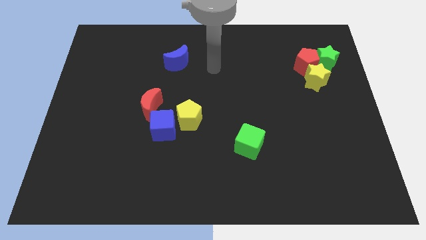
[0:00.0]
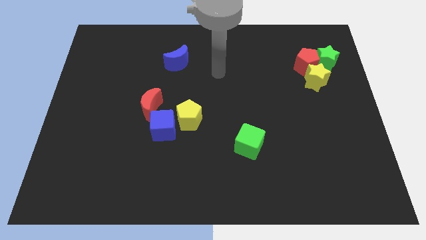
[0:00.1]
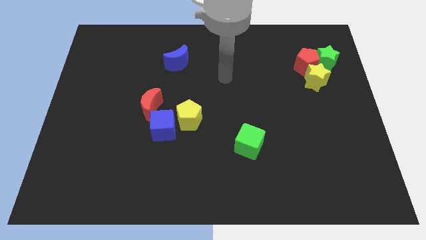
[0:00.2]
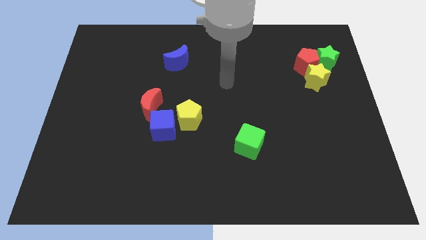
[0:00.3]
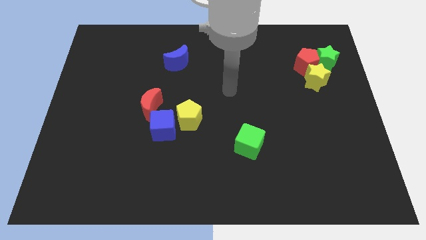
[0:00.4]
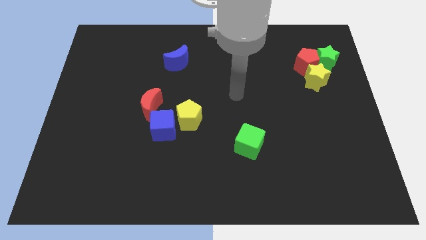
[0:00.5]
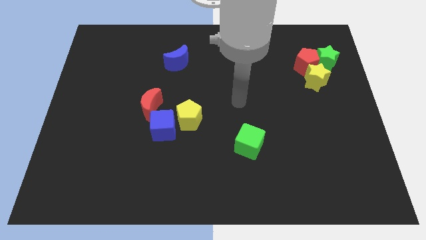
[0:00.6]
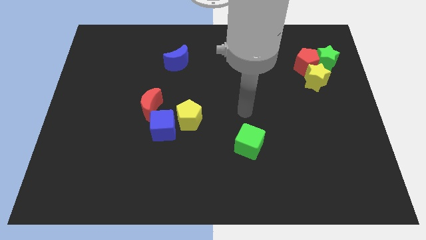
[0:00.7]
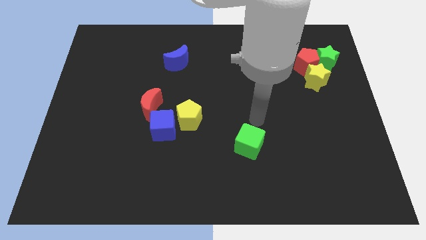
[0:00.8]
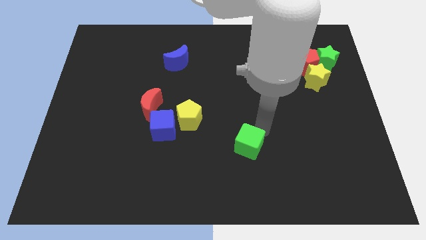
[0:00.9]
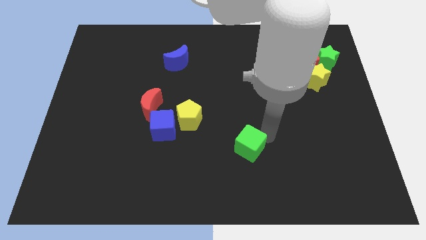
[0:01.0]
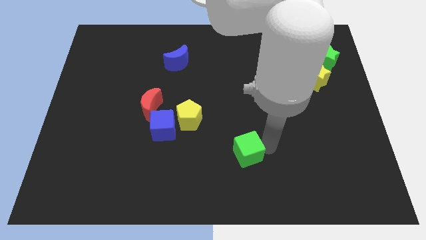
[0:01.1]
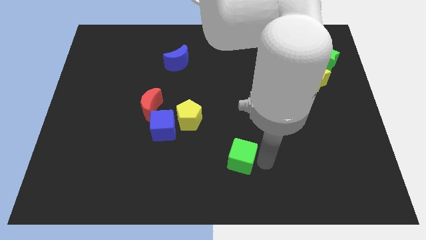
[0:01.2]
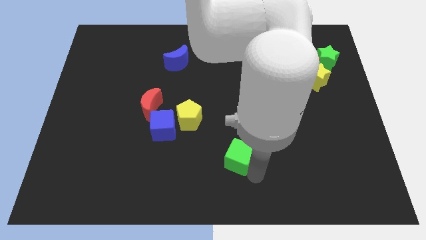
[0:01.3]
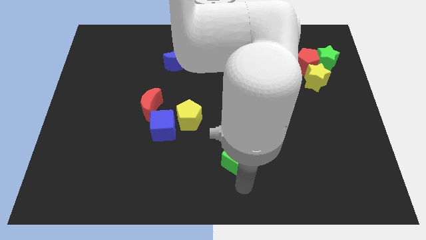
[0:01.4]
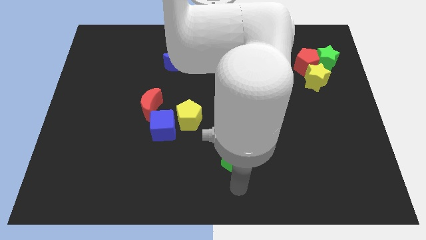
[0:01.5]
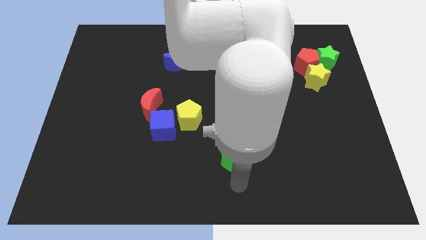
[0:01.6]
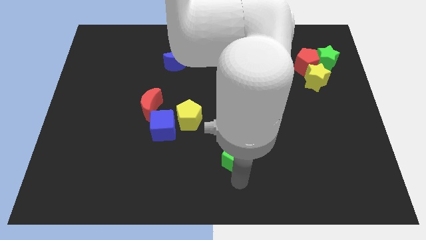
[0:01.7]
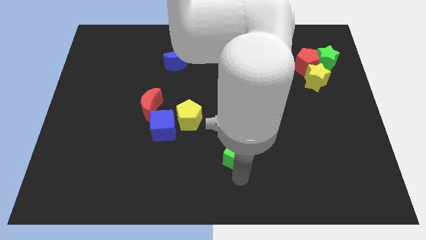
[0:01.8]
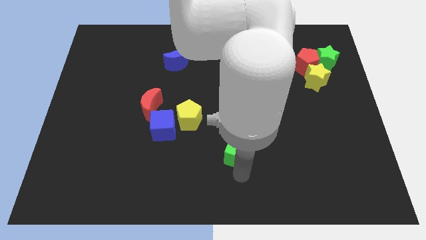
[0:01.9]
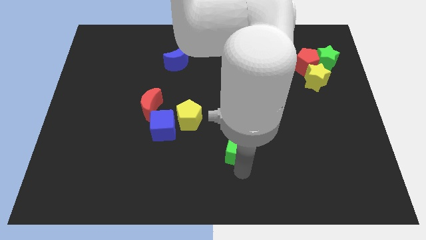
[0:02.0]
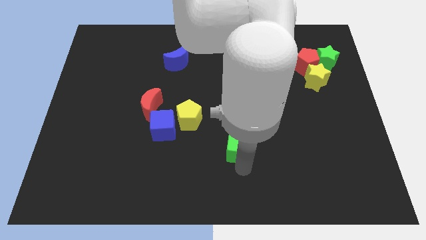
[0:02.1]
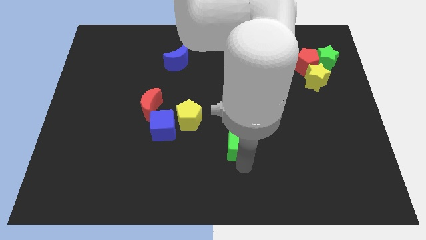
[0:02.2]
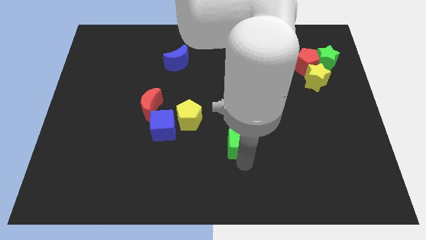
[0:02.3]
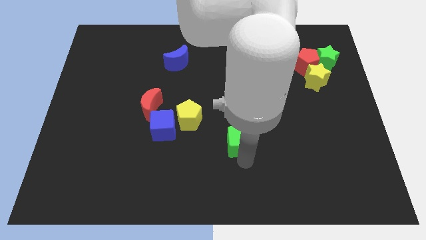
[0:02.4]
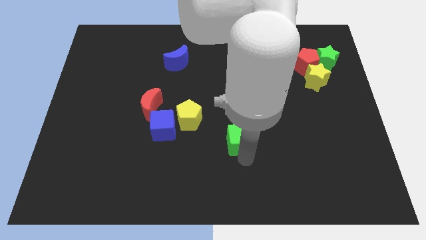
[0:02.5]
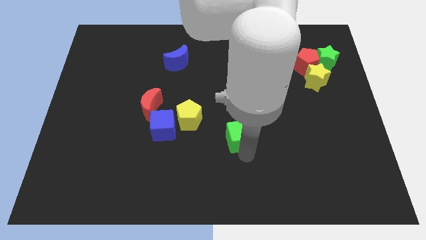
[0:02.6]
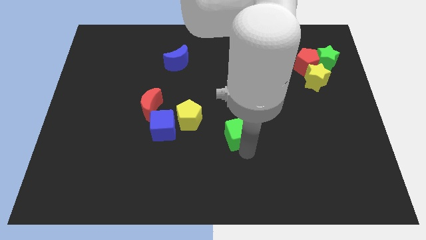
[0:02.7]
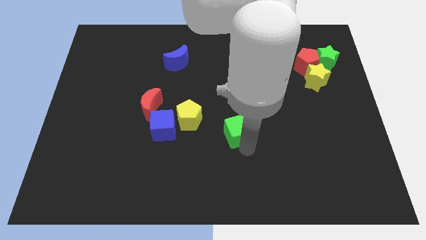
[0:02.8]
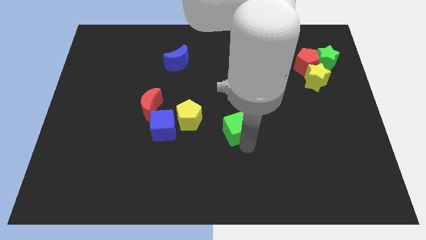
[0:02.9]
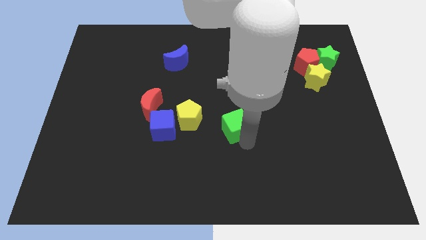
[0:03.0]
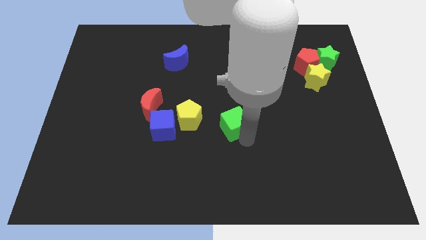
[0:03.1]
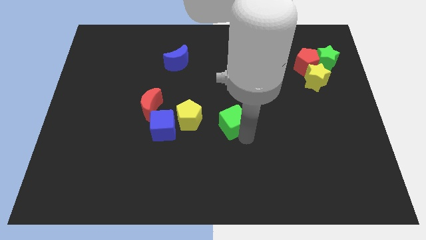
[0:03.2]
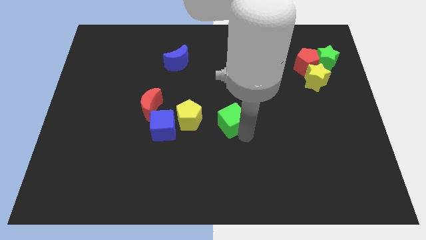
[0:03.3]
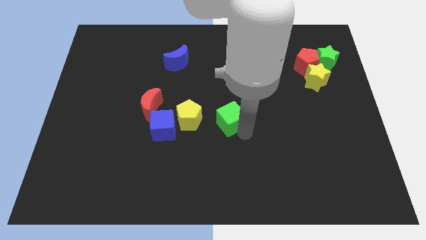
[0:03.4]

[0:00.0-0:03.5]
push the green cube diagonally upwards and to the left a bit

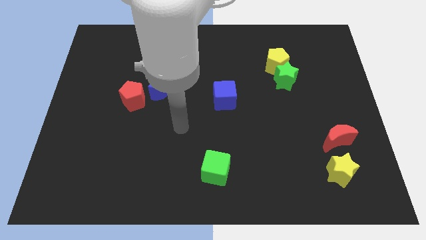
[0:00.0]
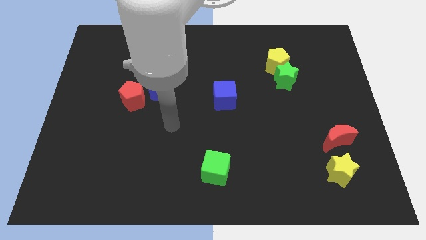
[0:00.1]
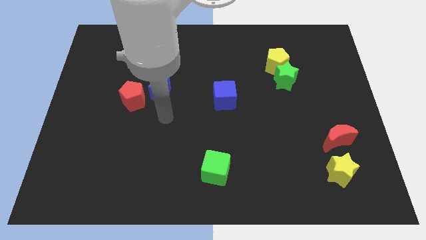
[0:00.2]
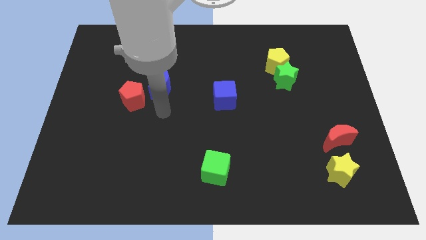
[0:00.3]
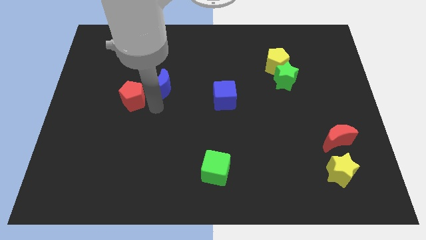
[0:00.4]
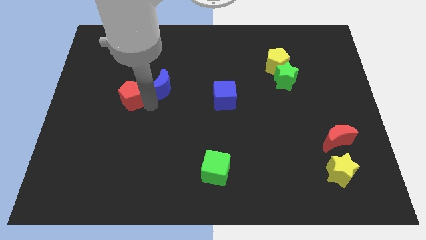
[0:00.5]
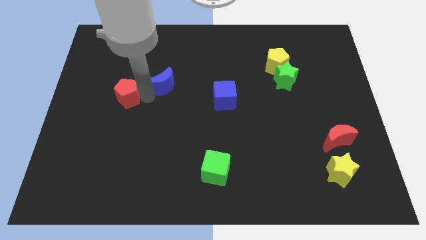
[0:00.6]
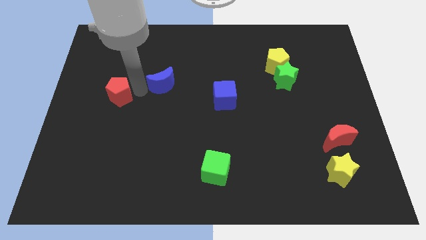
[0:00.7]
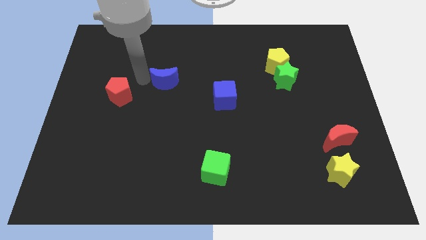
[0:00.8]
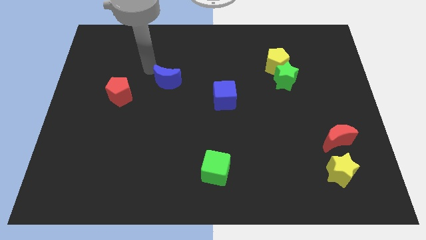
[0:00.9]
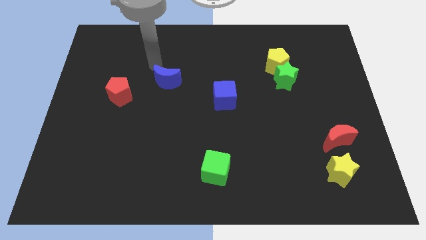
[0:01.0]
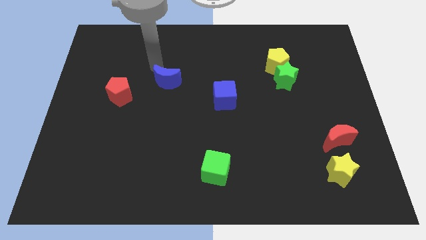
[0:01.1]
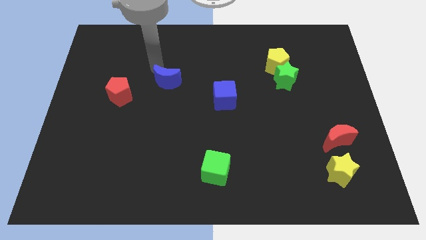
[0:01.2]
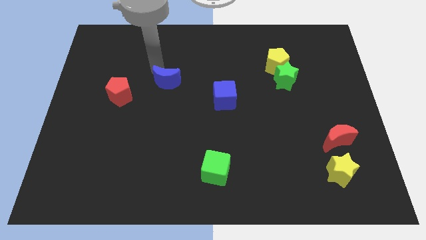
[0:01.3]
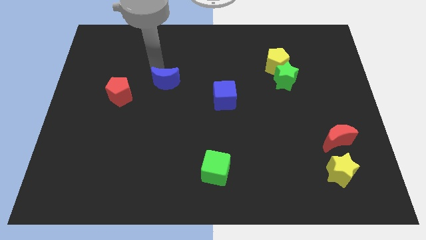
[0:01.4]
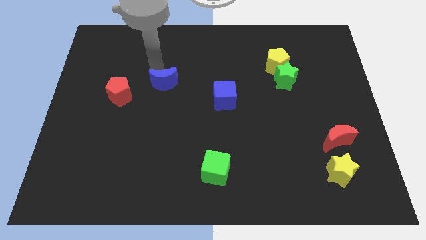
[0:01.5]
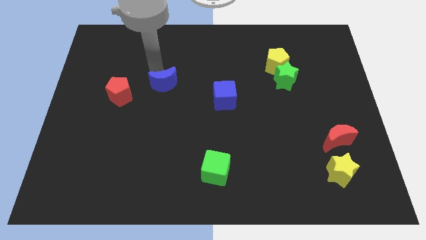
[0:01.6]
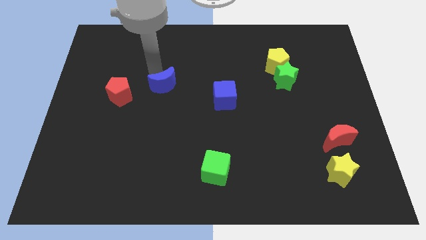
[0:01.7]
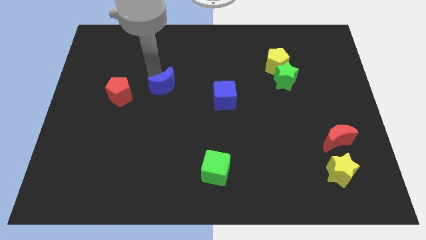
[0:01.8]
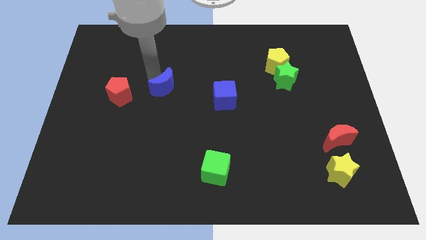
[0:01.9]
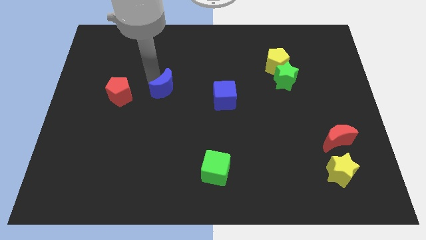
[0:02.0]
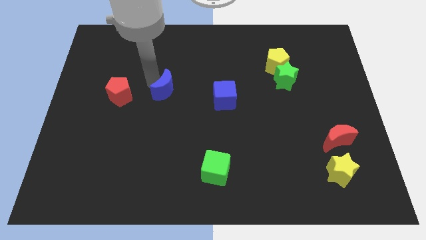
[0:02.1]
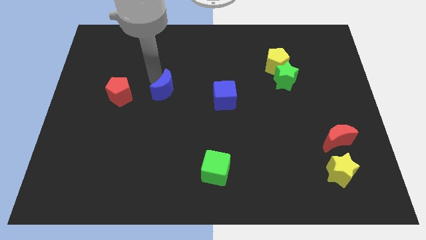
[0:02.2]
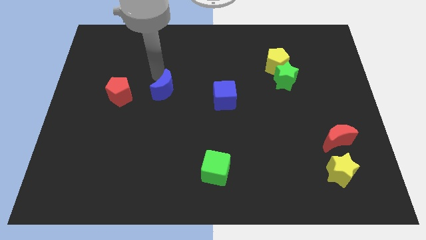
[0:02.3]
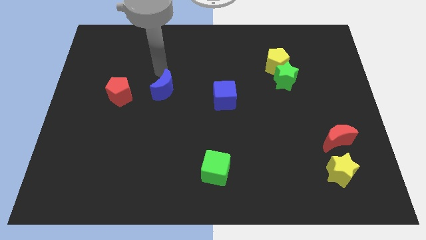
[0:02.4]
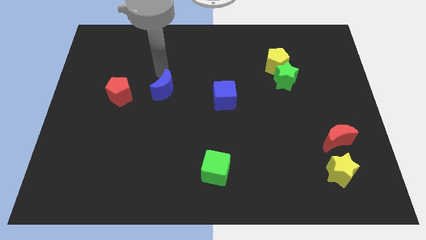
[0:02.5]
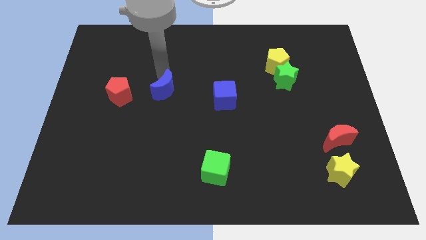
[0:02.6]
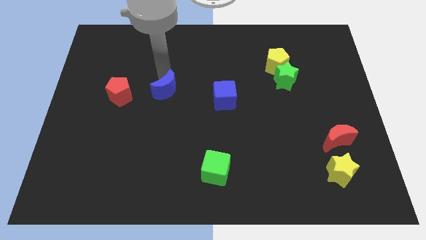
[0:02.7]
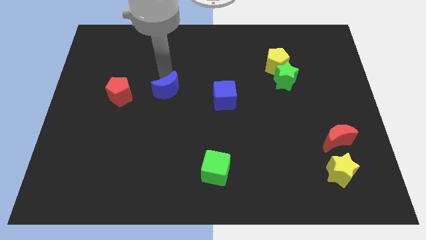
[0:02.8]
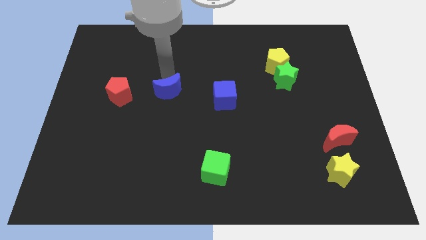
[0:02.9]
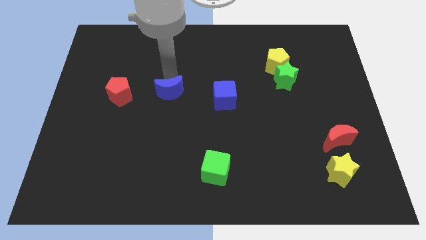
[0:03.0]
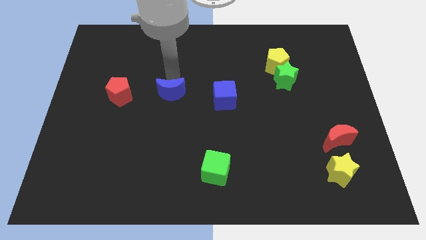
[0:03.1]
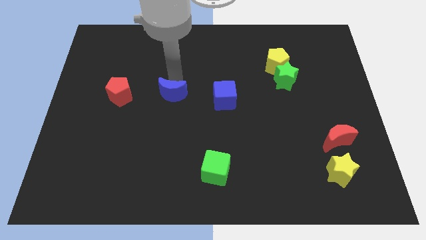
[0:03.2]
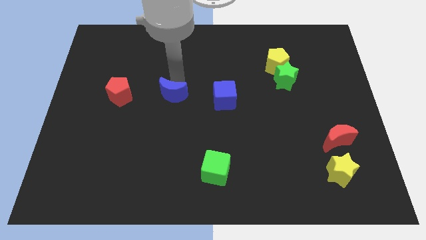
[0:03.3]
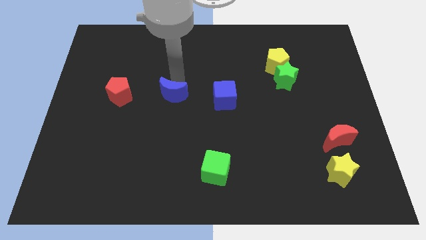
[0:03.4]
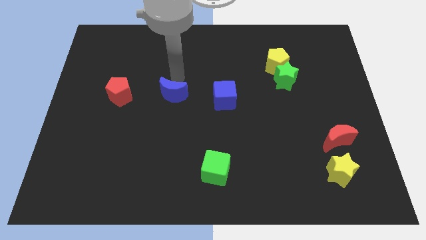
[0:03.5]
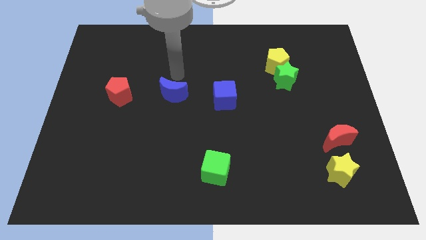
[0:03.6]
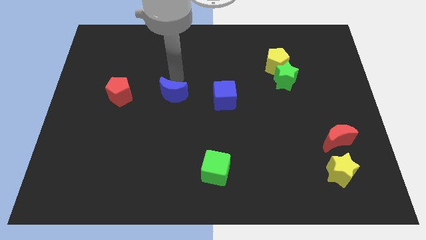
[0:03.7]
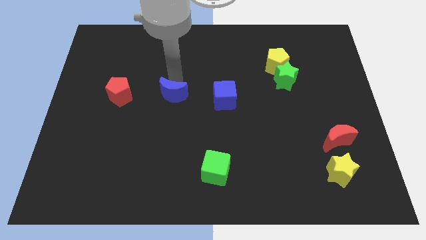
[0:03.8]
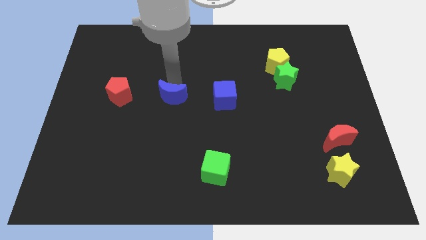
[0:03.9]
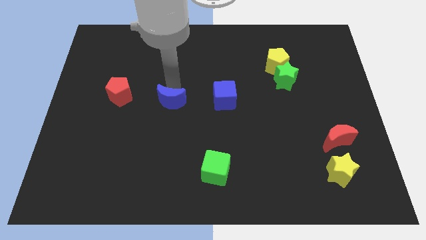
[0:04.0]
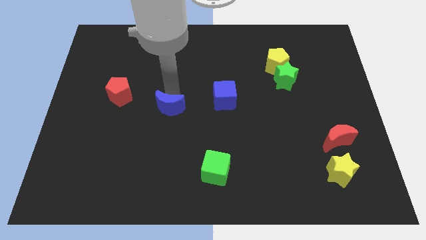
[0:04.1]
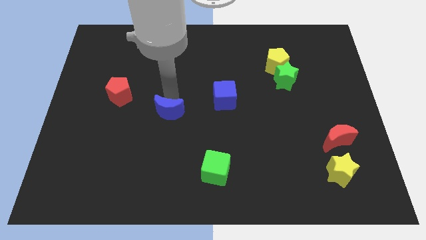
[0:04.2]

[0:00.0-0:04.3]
slightly move the blue moon down
